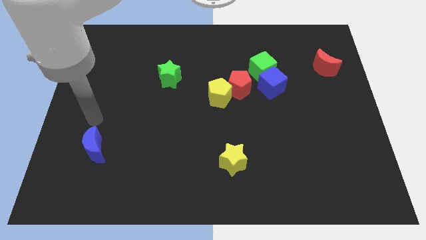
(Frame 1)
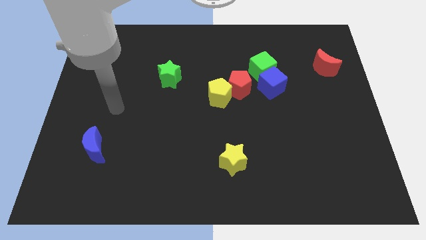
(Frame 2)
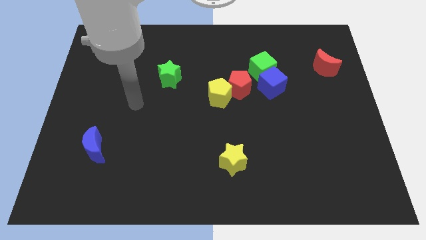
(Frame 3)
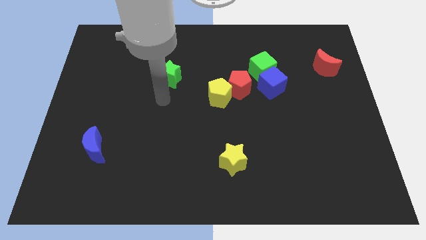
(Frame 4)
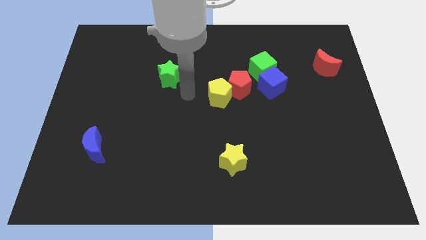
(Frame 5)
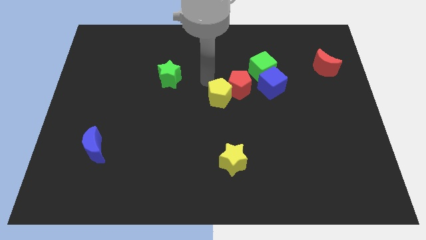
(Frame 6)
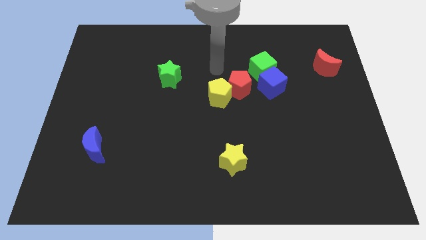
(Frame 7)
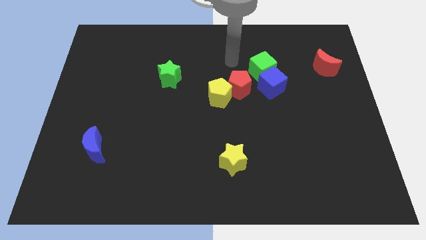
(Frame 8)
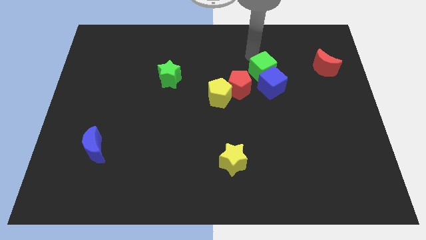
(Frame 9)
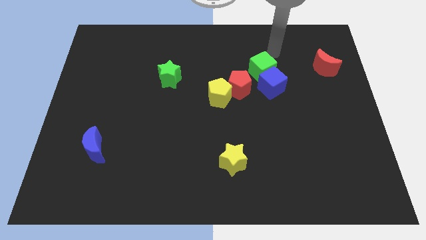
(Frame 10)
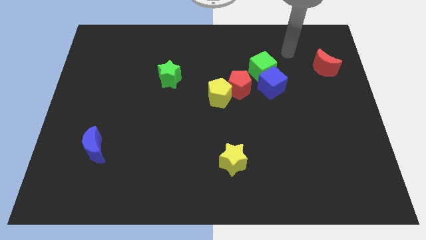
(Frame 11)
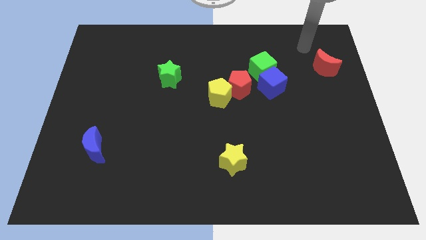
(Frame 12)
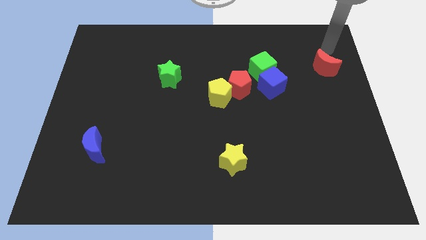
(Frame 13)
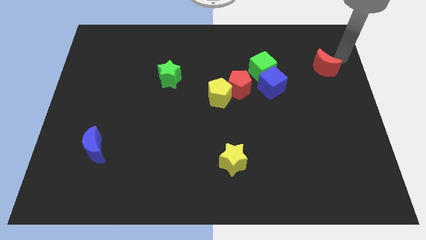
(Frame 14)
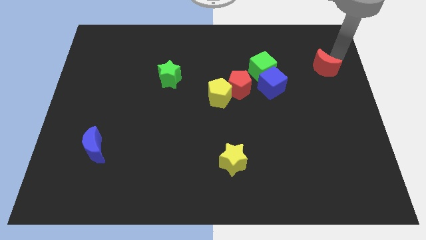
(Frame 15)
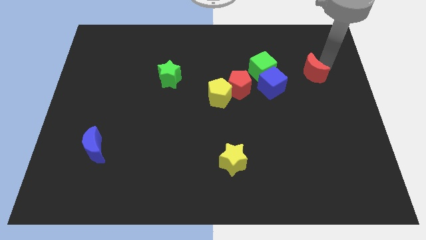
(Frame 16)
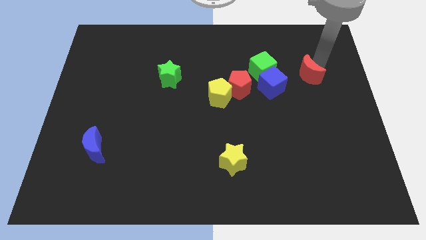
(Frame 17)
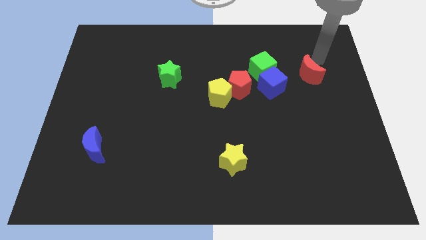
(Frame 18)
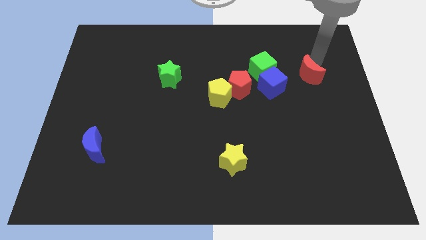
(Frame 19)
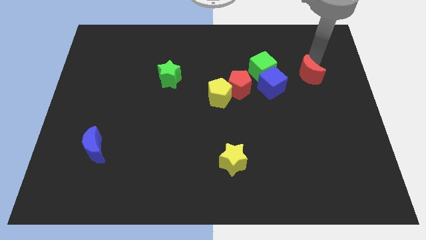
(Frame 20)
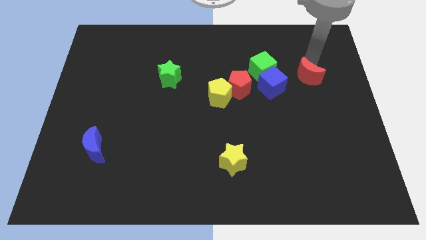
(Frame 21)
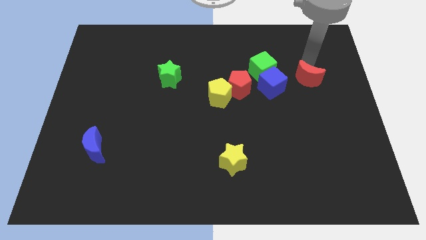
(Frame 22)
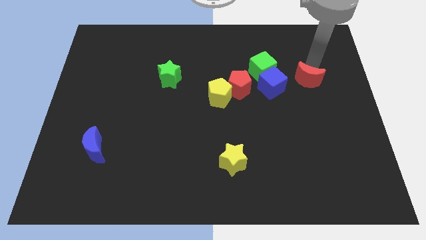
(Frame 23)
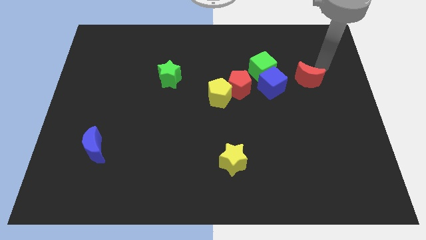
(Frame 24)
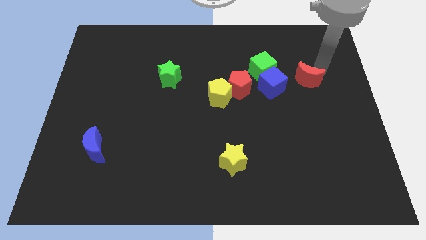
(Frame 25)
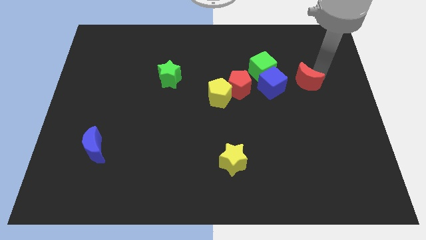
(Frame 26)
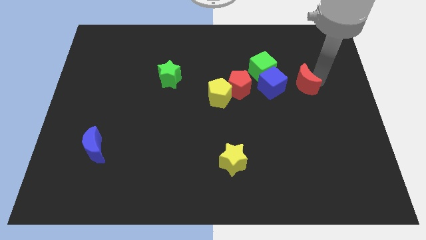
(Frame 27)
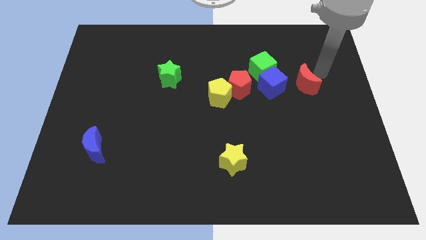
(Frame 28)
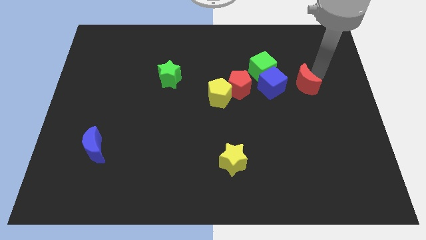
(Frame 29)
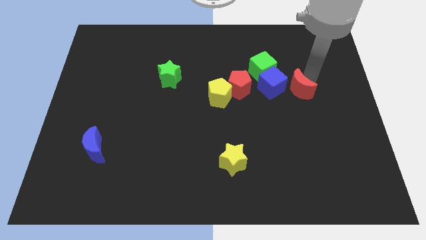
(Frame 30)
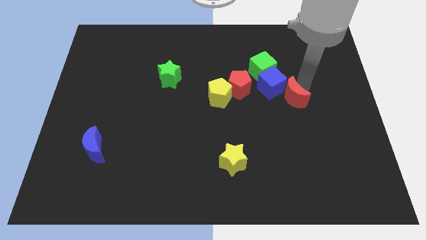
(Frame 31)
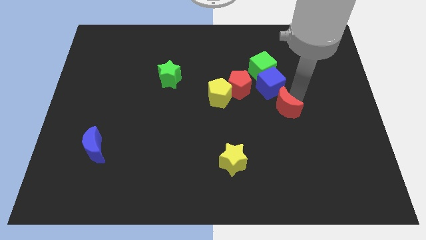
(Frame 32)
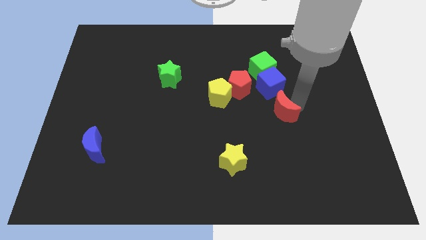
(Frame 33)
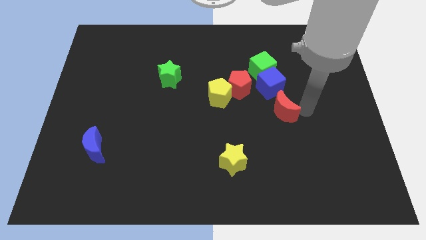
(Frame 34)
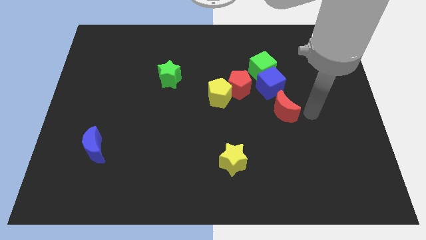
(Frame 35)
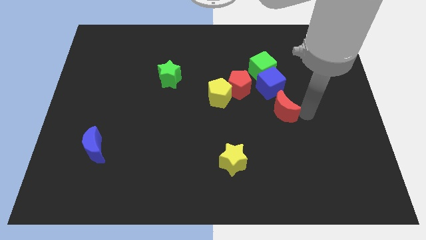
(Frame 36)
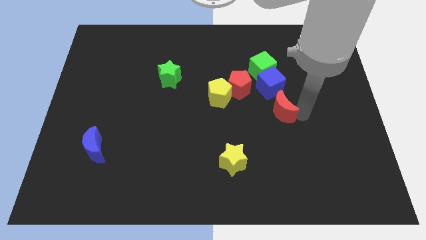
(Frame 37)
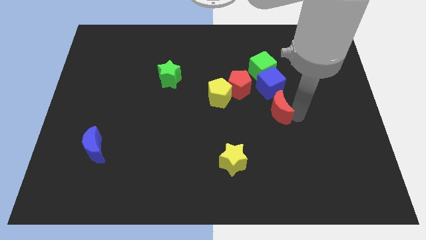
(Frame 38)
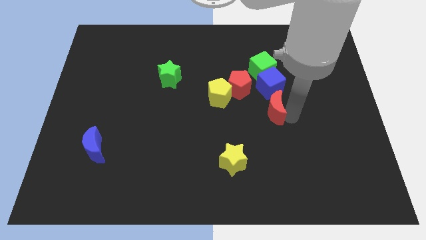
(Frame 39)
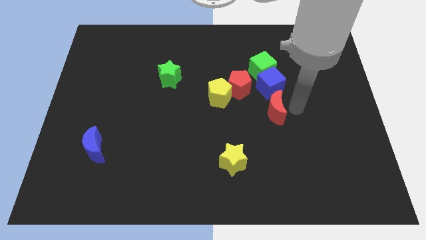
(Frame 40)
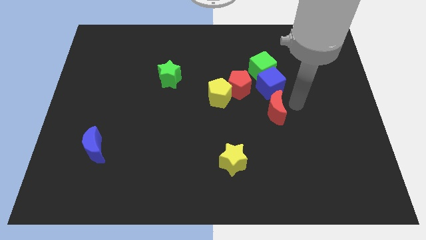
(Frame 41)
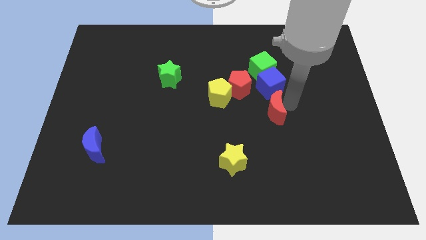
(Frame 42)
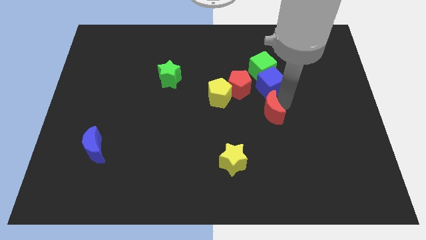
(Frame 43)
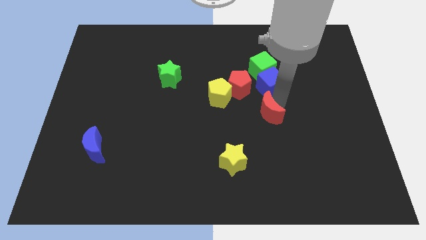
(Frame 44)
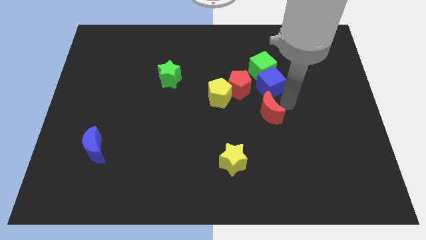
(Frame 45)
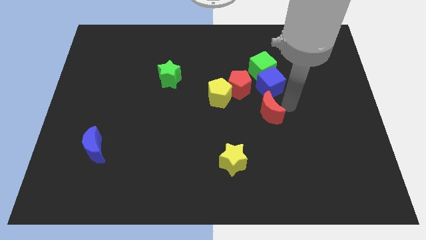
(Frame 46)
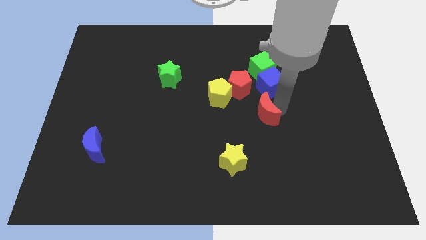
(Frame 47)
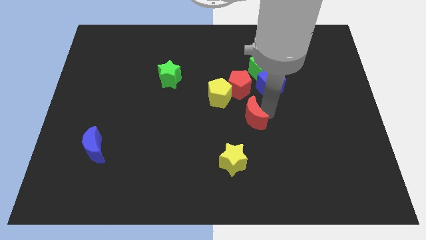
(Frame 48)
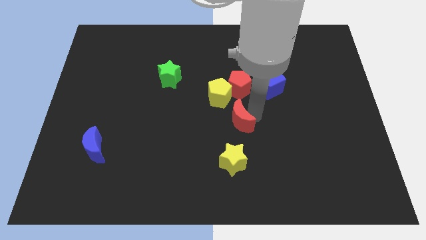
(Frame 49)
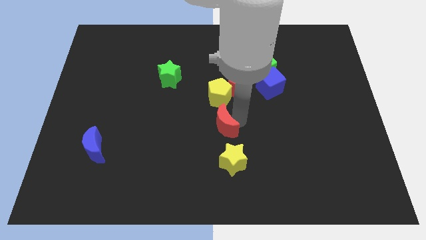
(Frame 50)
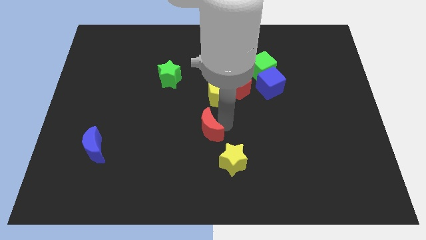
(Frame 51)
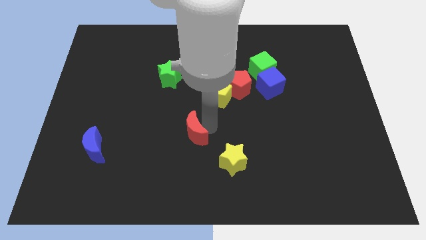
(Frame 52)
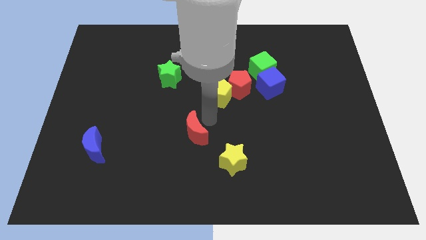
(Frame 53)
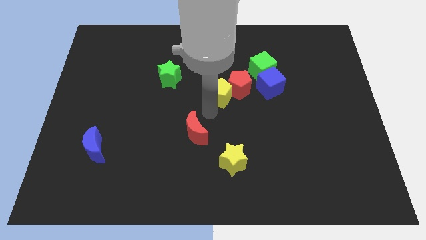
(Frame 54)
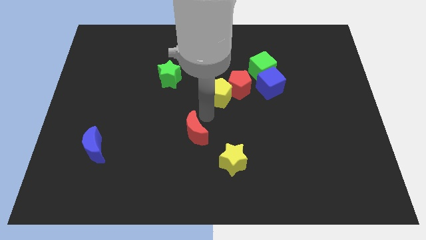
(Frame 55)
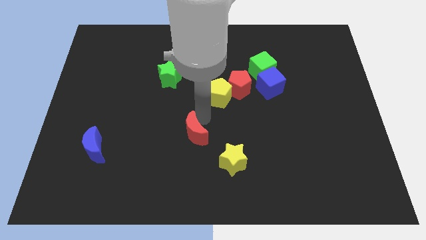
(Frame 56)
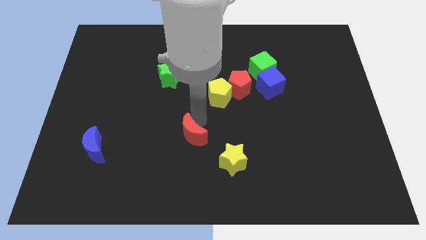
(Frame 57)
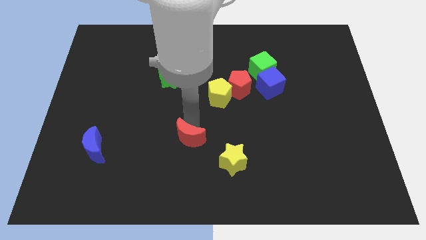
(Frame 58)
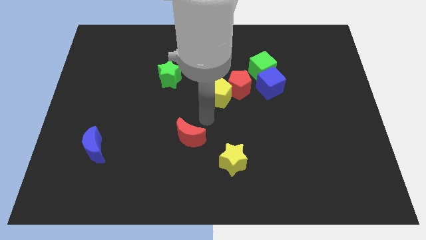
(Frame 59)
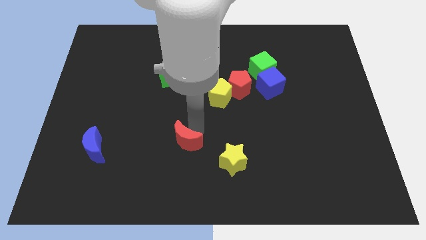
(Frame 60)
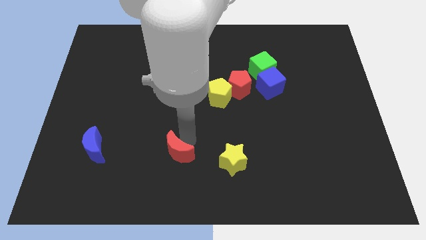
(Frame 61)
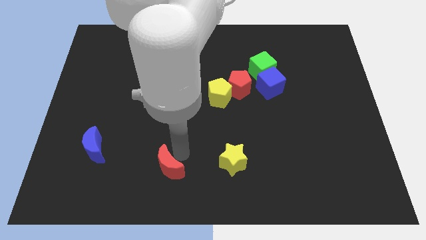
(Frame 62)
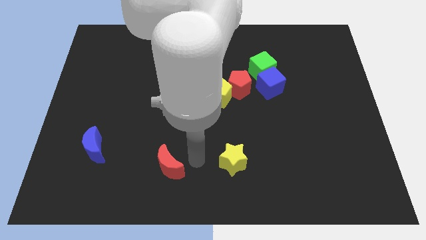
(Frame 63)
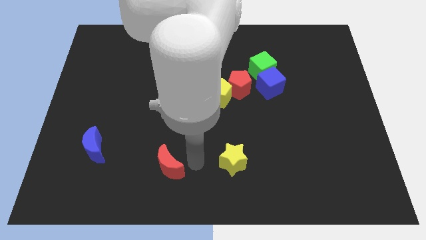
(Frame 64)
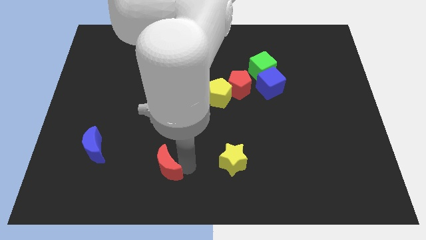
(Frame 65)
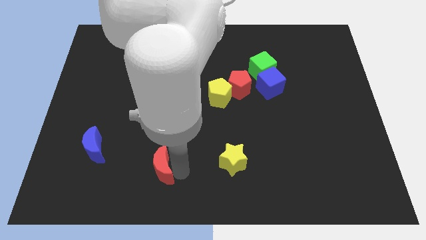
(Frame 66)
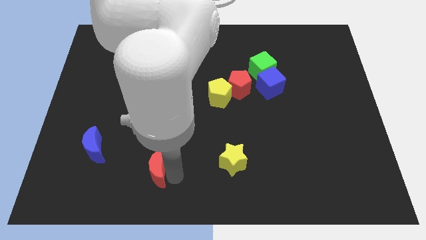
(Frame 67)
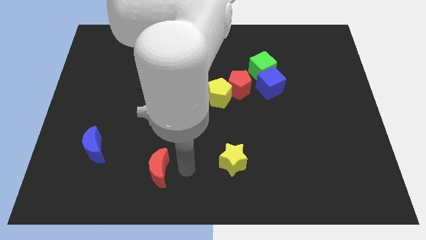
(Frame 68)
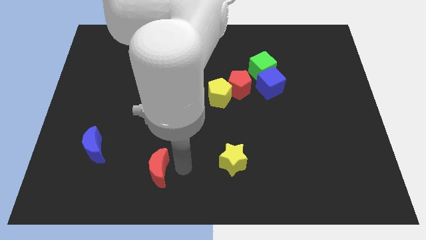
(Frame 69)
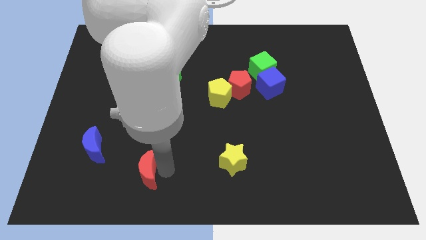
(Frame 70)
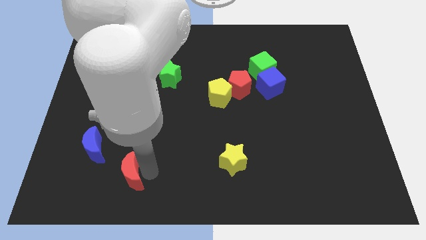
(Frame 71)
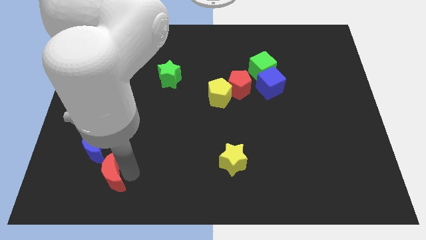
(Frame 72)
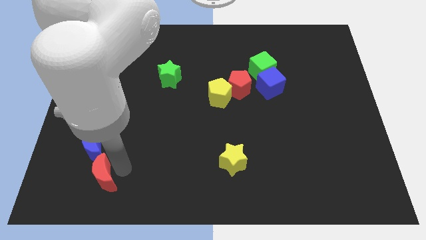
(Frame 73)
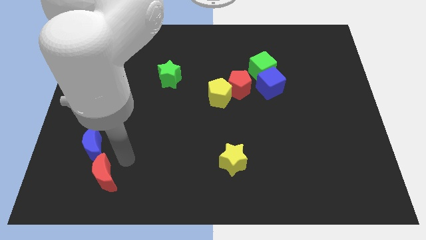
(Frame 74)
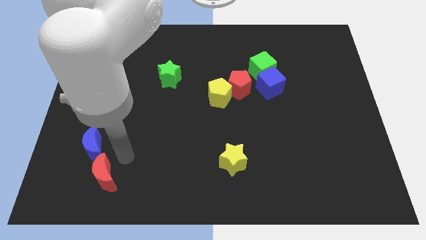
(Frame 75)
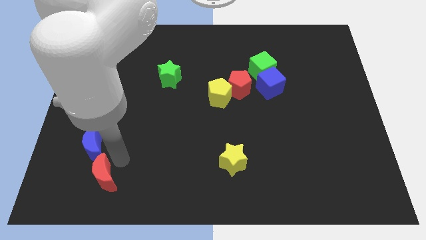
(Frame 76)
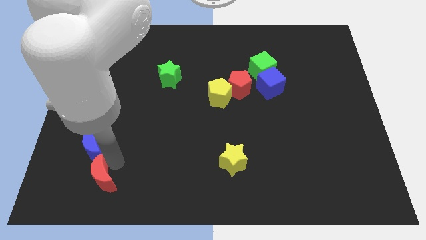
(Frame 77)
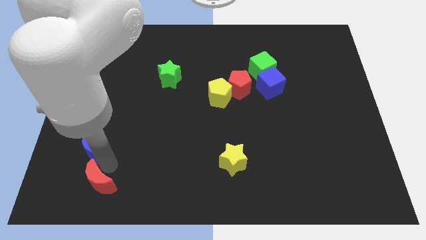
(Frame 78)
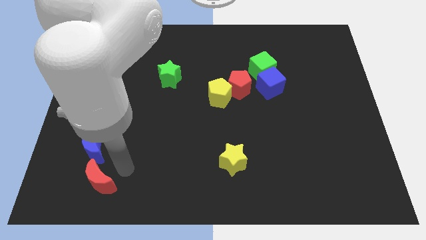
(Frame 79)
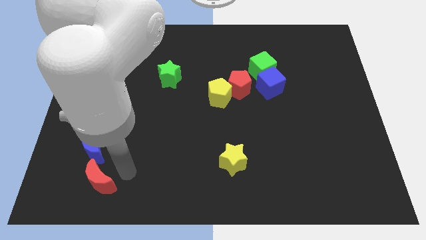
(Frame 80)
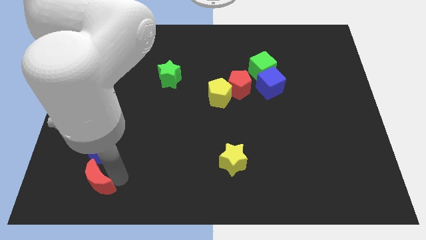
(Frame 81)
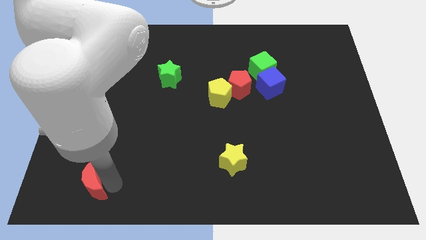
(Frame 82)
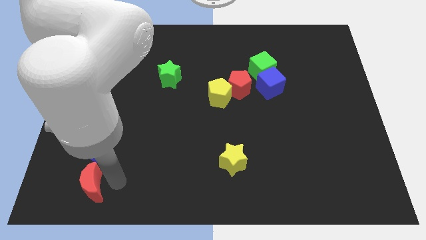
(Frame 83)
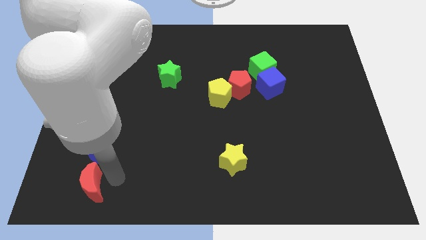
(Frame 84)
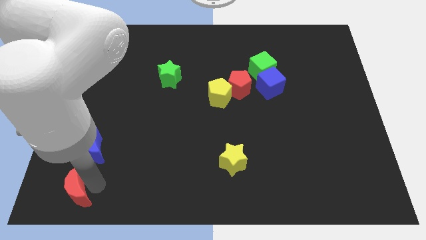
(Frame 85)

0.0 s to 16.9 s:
move the red moon to the bottom left corner
